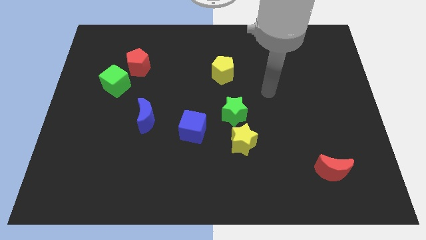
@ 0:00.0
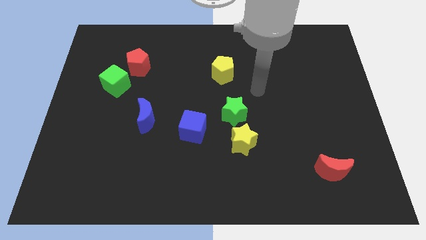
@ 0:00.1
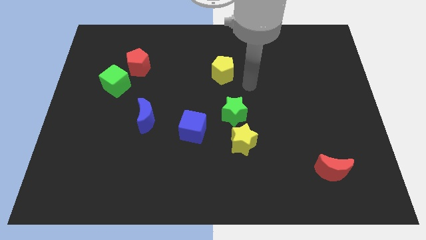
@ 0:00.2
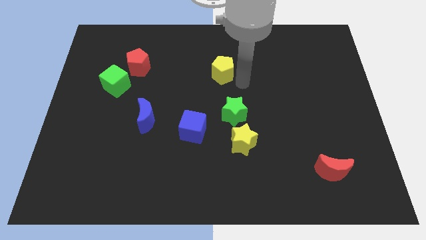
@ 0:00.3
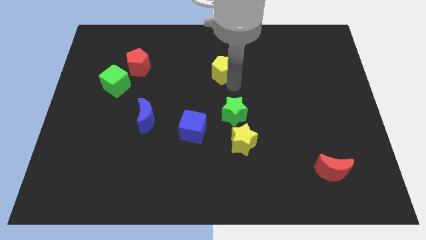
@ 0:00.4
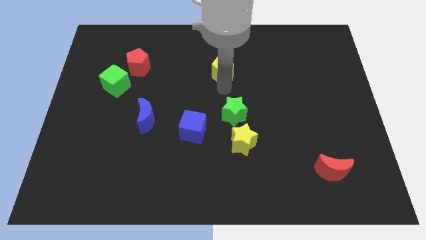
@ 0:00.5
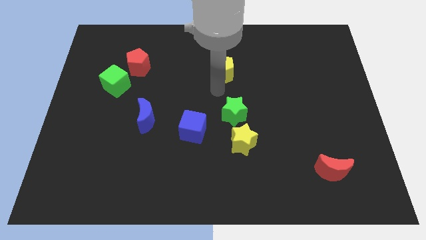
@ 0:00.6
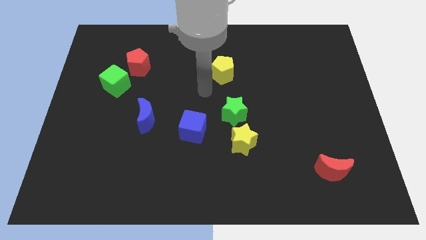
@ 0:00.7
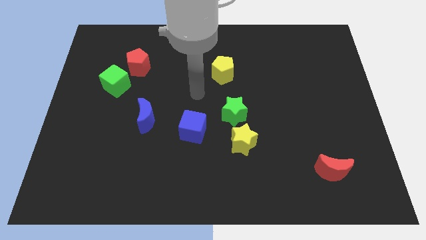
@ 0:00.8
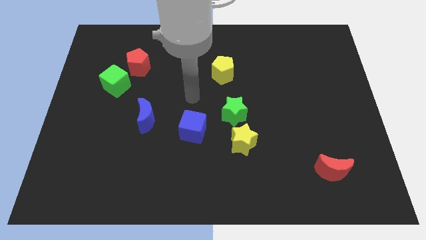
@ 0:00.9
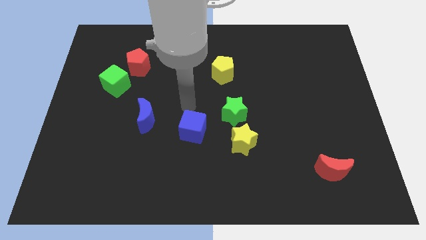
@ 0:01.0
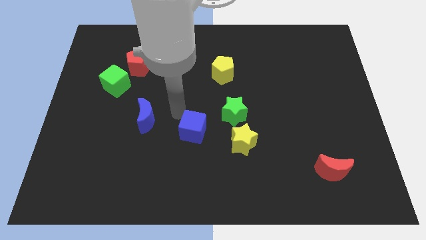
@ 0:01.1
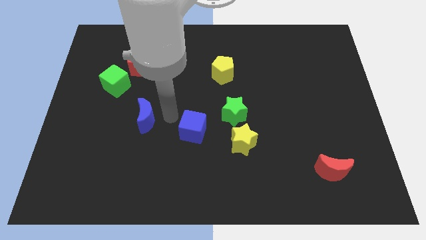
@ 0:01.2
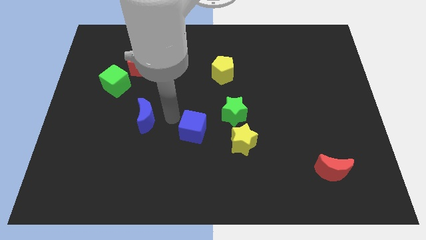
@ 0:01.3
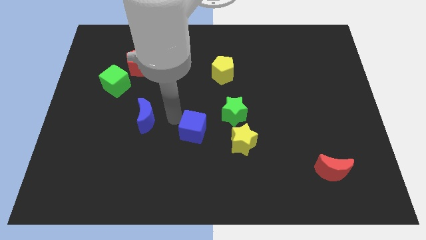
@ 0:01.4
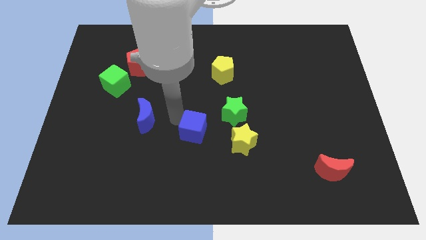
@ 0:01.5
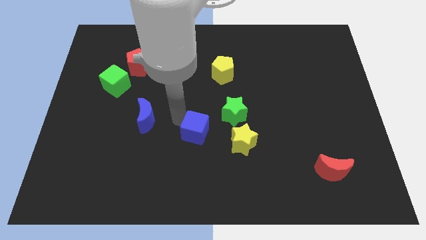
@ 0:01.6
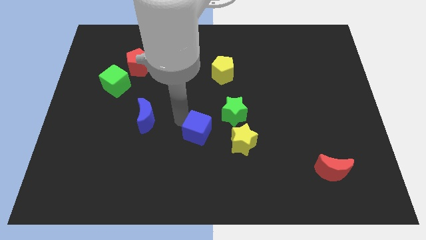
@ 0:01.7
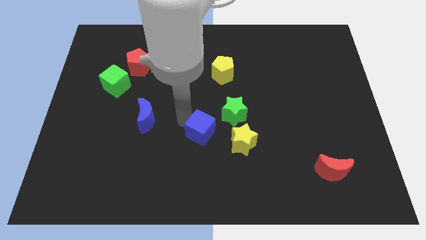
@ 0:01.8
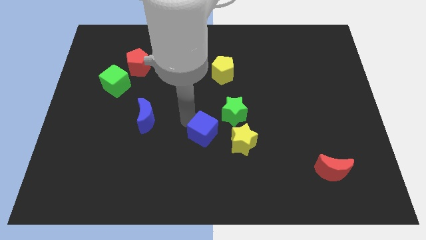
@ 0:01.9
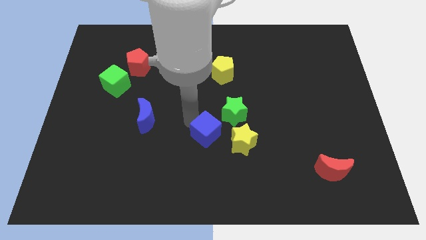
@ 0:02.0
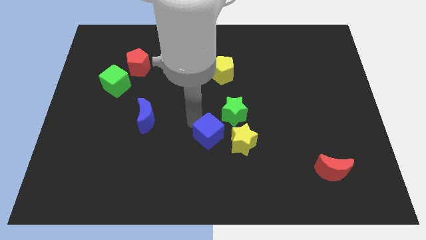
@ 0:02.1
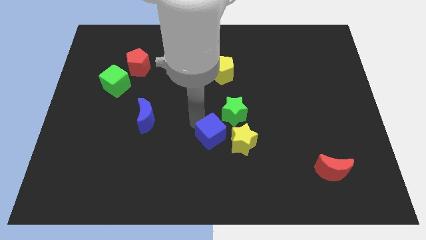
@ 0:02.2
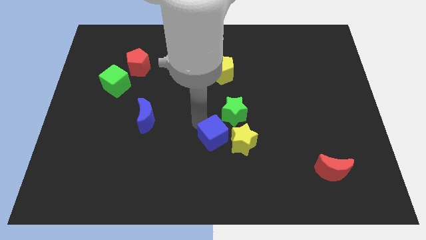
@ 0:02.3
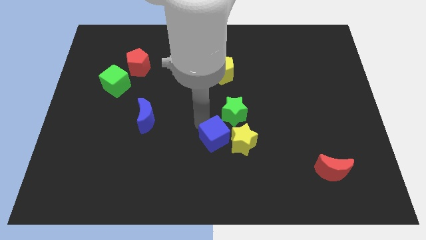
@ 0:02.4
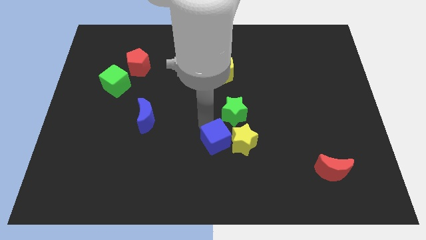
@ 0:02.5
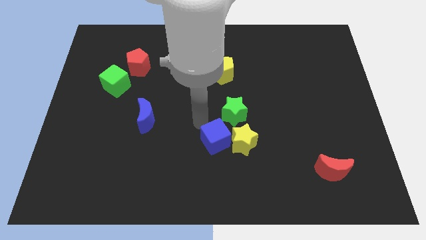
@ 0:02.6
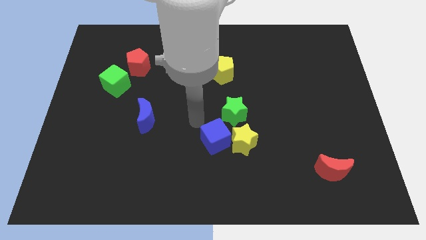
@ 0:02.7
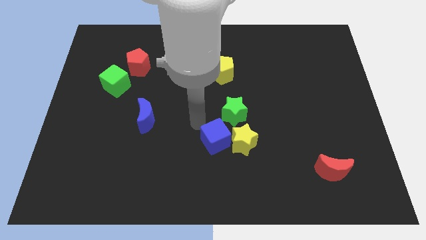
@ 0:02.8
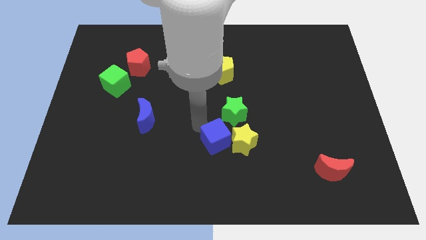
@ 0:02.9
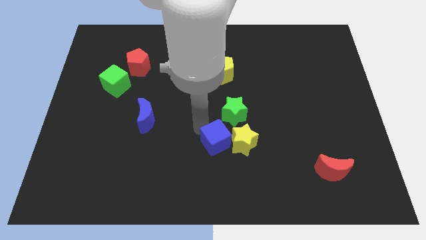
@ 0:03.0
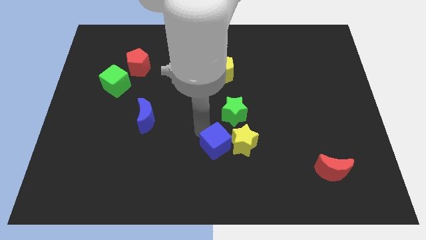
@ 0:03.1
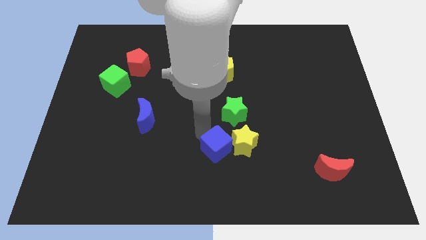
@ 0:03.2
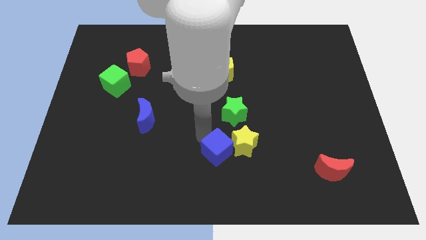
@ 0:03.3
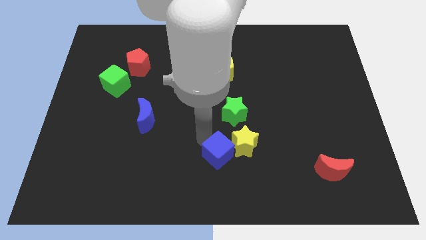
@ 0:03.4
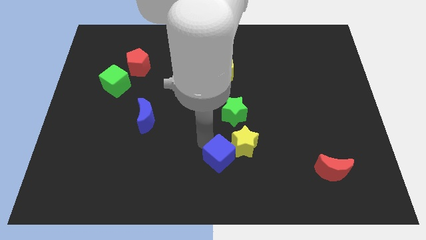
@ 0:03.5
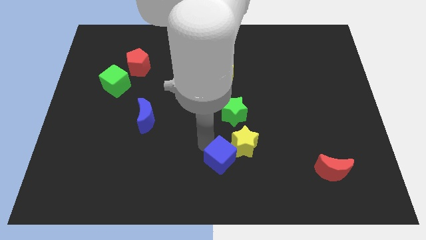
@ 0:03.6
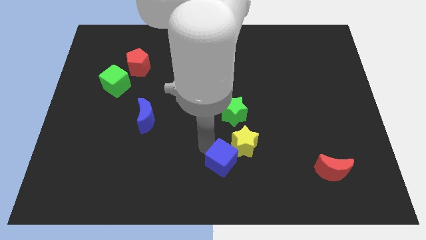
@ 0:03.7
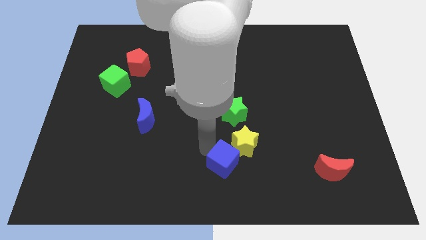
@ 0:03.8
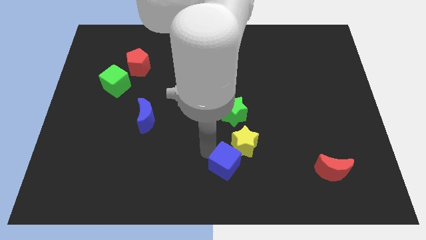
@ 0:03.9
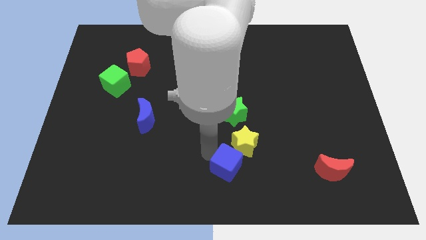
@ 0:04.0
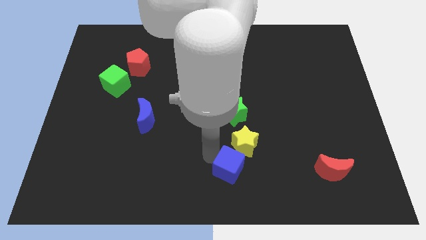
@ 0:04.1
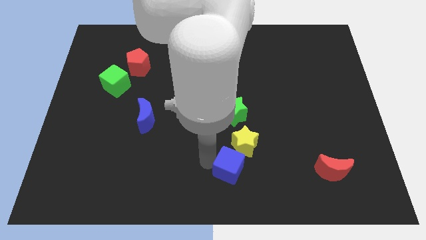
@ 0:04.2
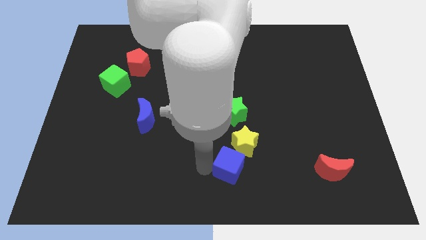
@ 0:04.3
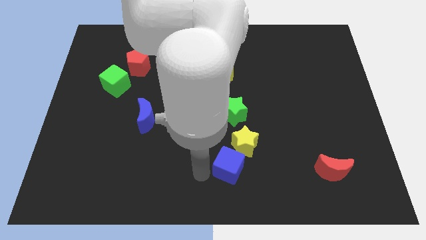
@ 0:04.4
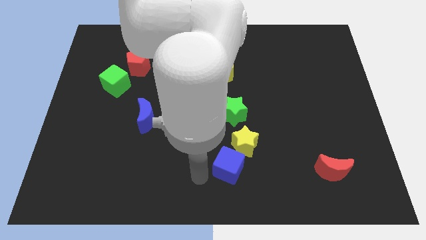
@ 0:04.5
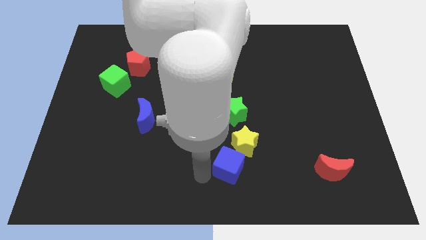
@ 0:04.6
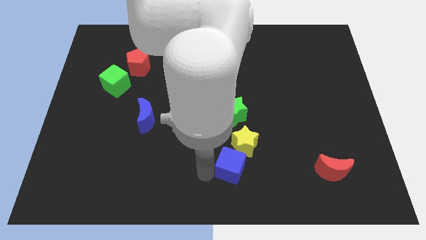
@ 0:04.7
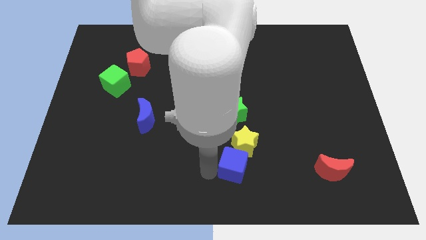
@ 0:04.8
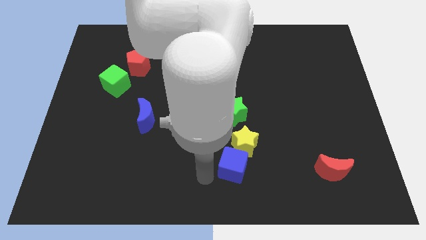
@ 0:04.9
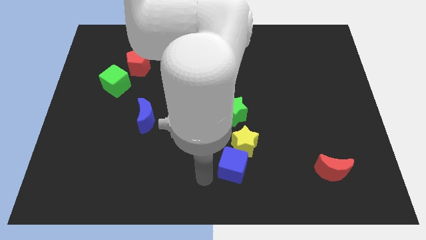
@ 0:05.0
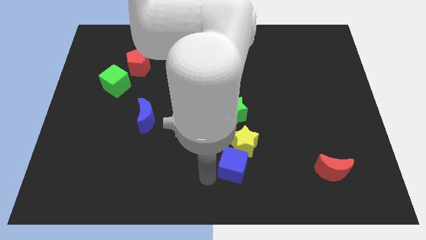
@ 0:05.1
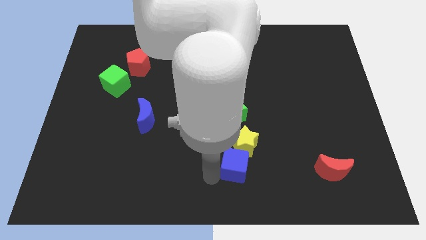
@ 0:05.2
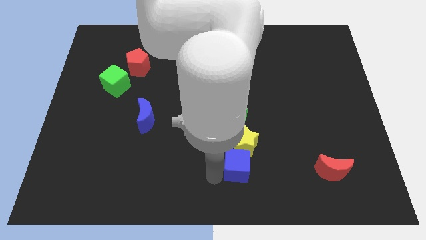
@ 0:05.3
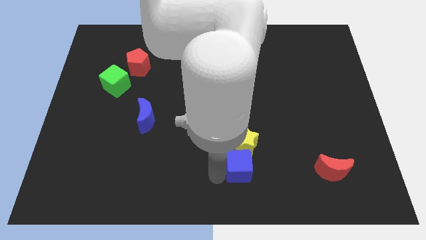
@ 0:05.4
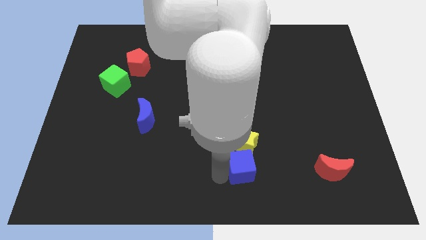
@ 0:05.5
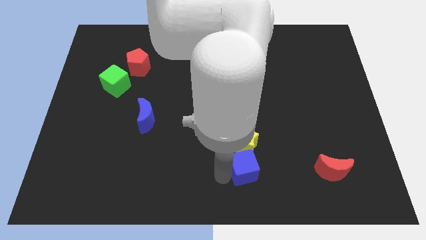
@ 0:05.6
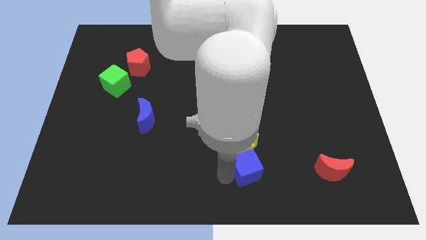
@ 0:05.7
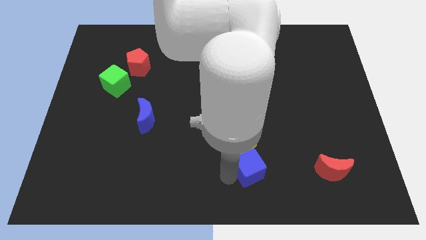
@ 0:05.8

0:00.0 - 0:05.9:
push the blue cube right slightly

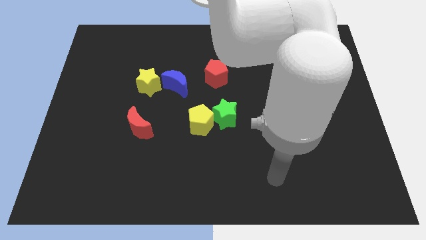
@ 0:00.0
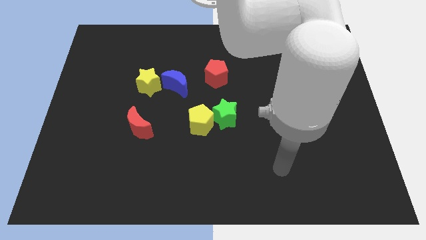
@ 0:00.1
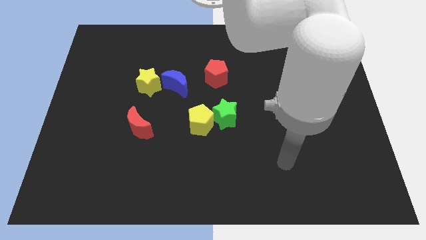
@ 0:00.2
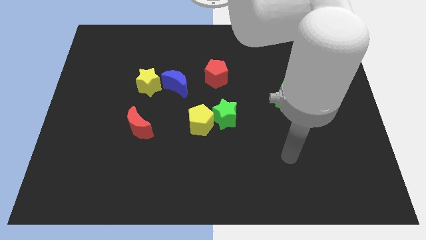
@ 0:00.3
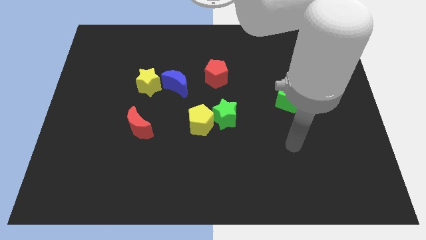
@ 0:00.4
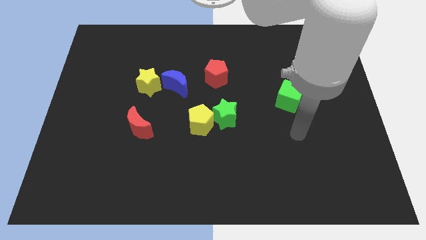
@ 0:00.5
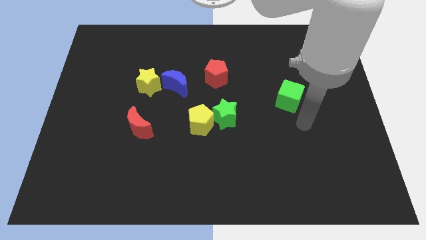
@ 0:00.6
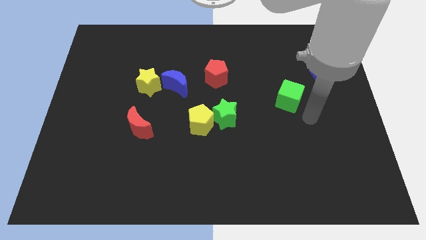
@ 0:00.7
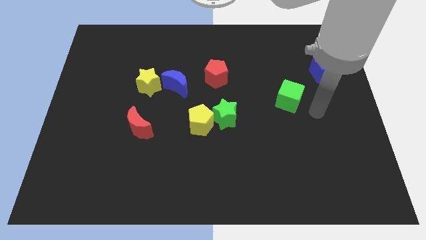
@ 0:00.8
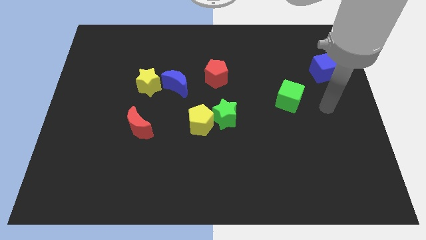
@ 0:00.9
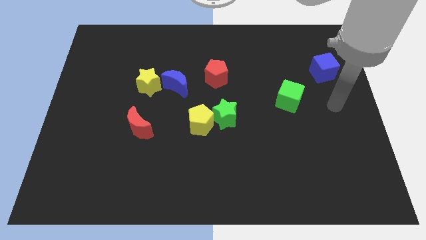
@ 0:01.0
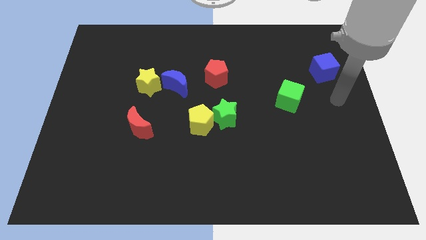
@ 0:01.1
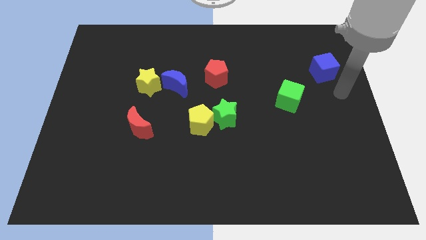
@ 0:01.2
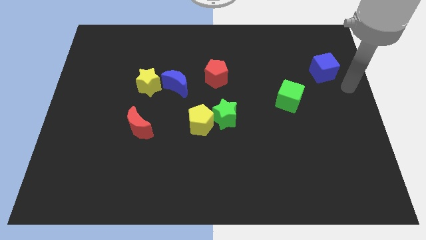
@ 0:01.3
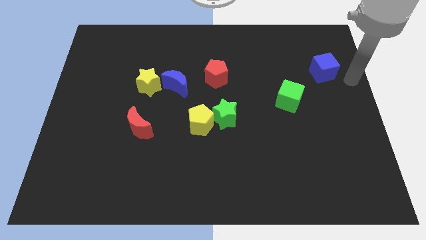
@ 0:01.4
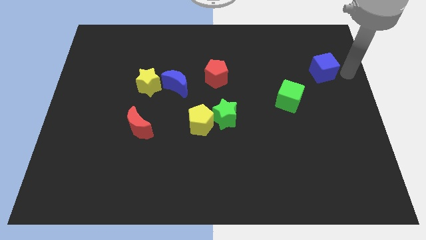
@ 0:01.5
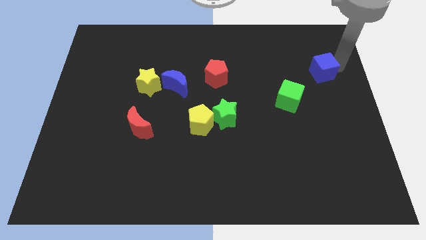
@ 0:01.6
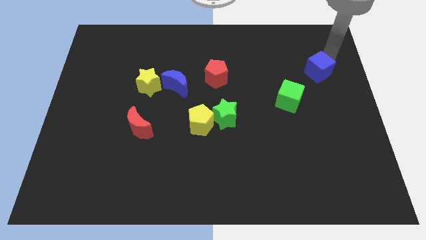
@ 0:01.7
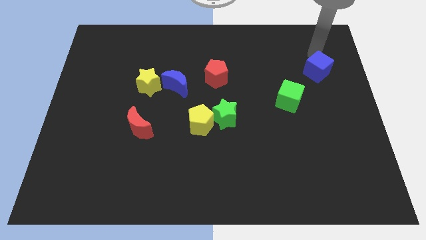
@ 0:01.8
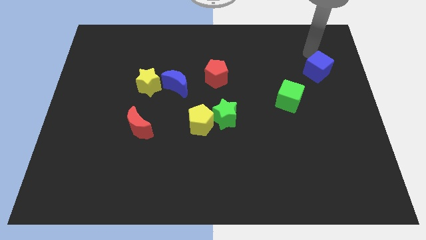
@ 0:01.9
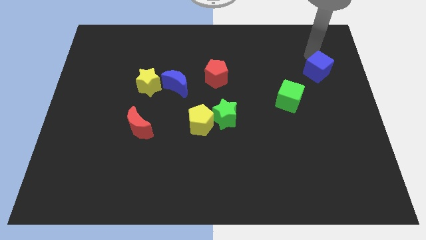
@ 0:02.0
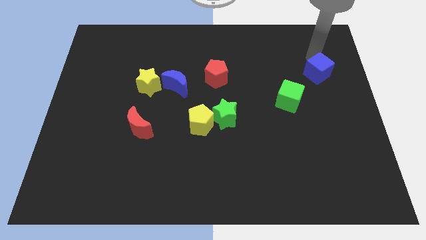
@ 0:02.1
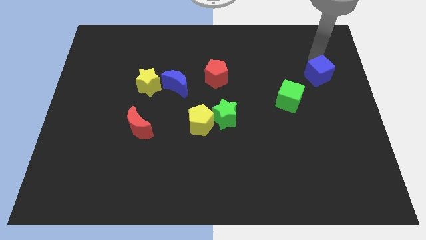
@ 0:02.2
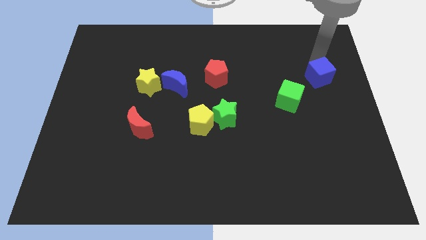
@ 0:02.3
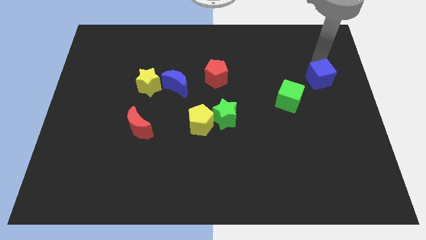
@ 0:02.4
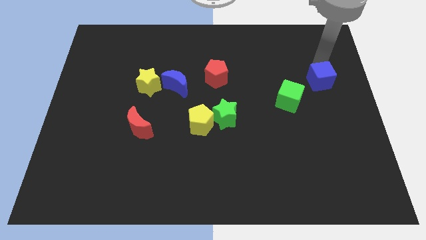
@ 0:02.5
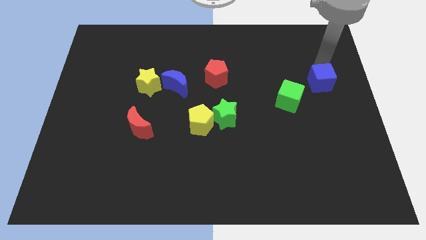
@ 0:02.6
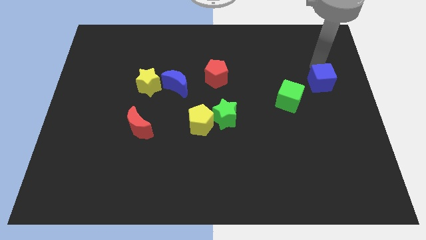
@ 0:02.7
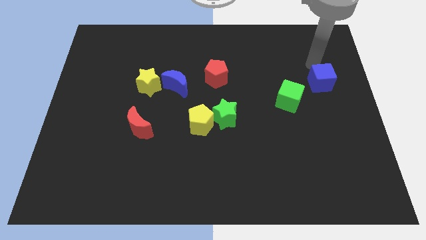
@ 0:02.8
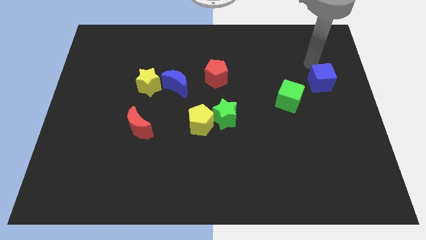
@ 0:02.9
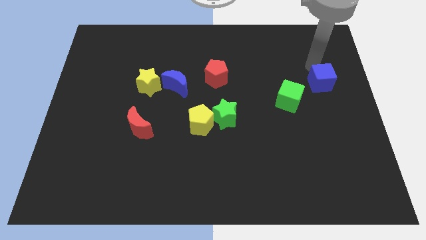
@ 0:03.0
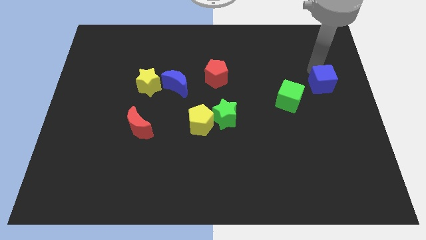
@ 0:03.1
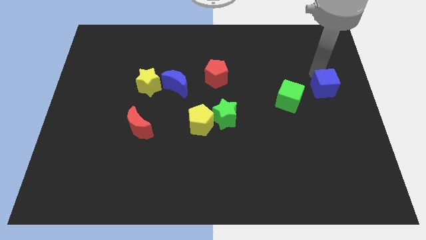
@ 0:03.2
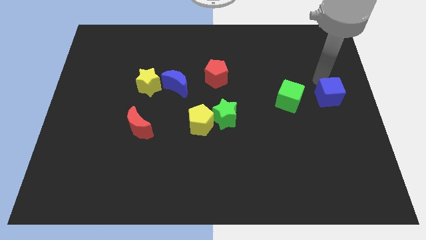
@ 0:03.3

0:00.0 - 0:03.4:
slide the blue cube down slightly
